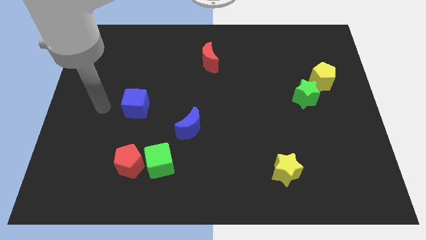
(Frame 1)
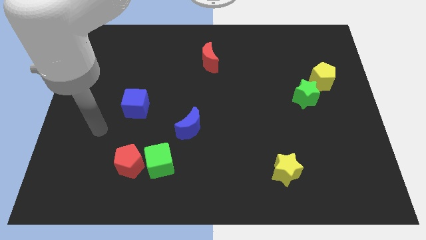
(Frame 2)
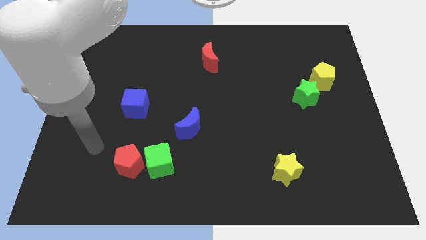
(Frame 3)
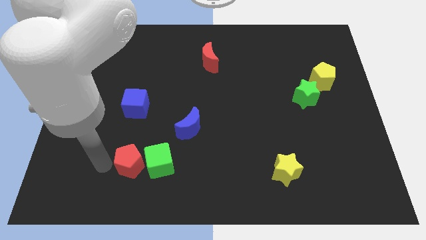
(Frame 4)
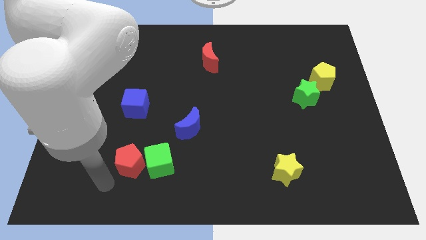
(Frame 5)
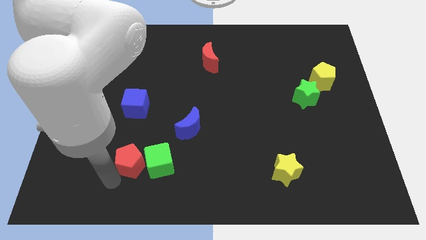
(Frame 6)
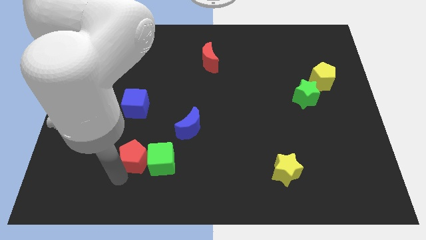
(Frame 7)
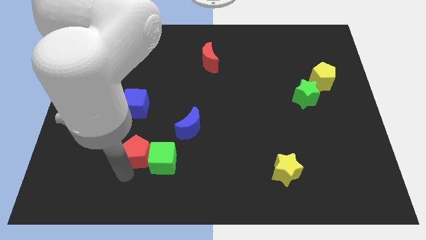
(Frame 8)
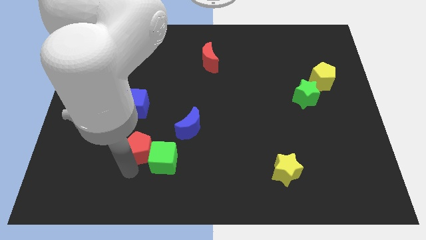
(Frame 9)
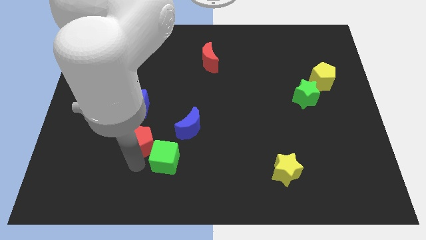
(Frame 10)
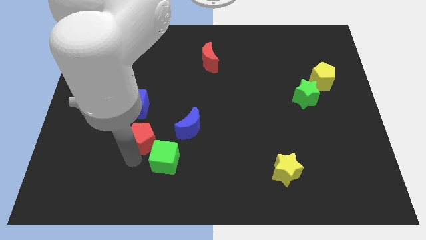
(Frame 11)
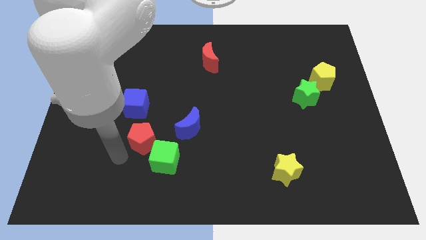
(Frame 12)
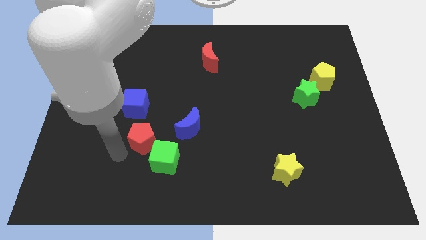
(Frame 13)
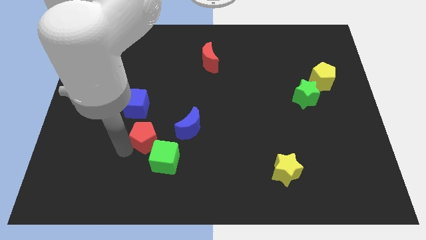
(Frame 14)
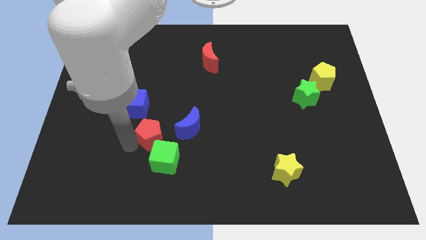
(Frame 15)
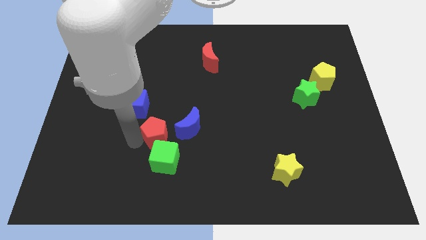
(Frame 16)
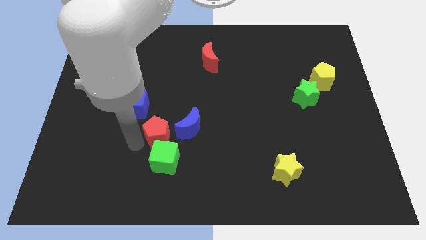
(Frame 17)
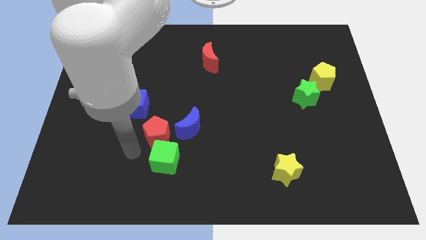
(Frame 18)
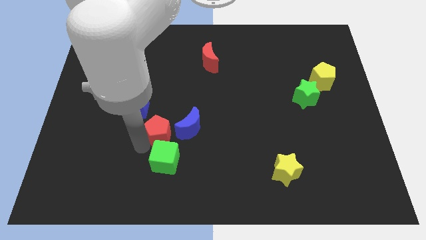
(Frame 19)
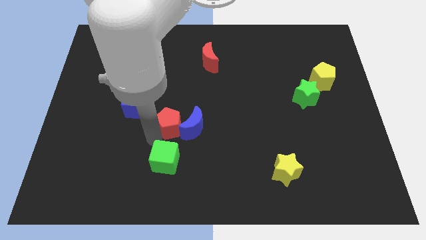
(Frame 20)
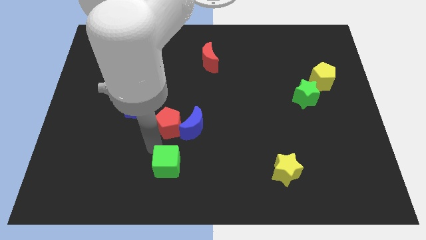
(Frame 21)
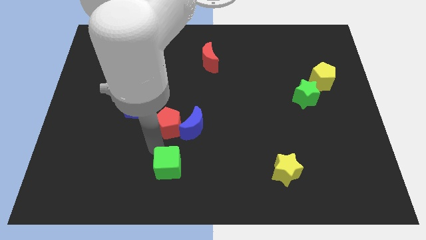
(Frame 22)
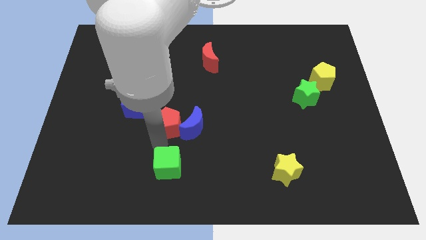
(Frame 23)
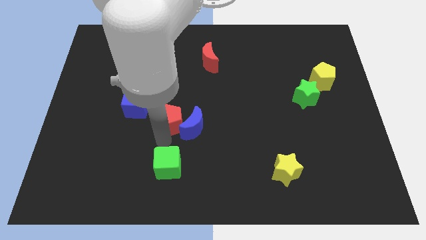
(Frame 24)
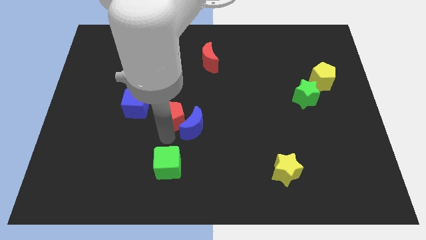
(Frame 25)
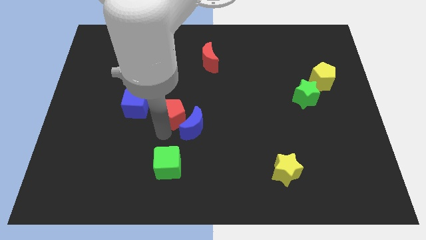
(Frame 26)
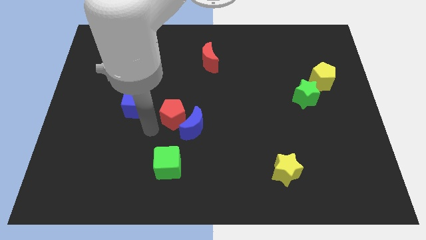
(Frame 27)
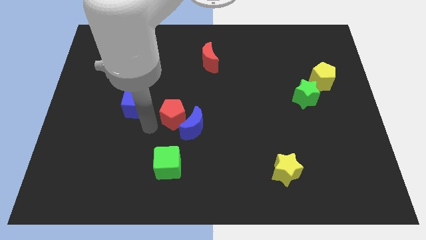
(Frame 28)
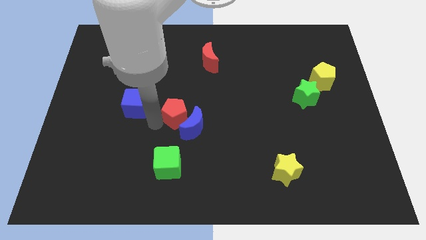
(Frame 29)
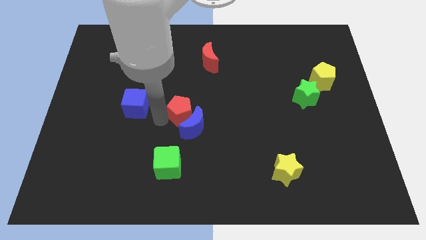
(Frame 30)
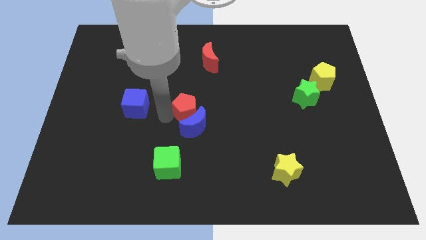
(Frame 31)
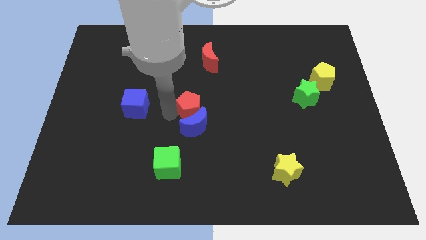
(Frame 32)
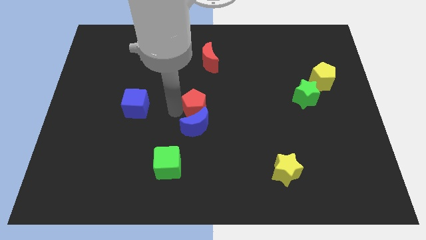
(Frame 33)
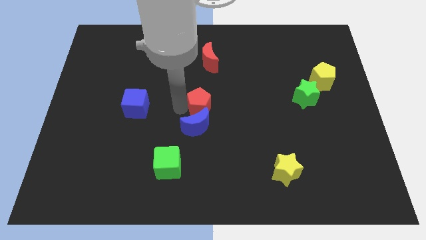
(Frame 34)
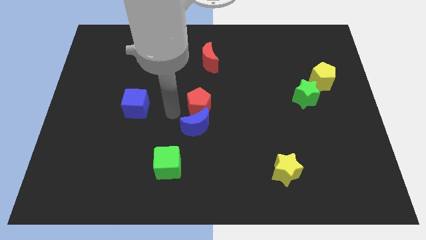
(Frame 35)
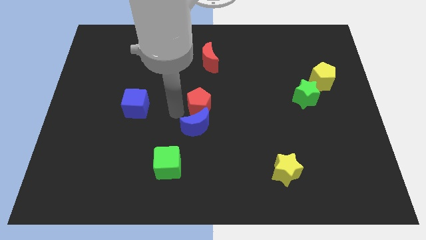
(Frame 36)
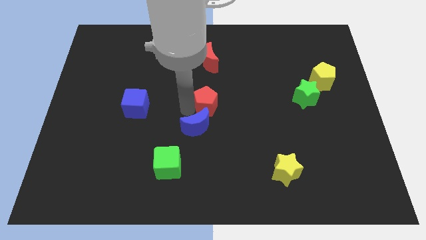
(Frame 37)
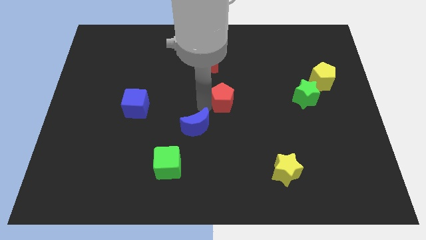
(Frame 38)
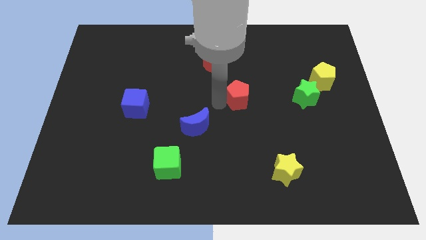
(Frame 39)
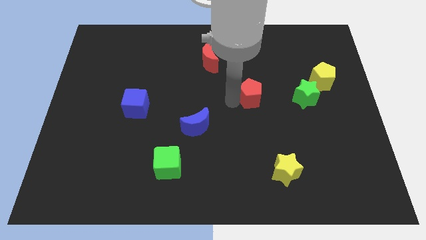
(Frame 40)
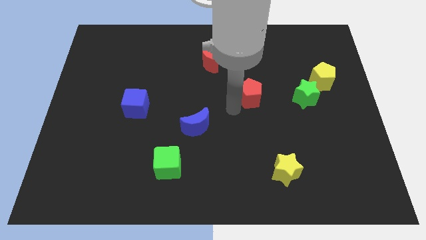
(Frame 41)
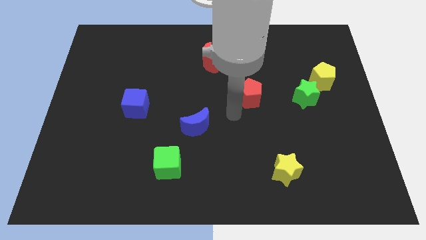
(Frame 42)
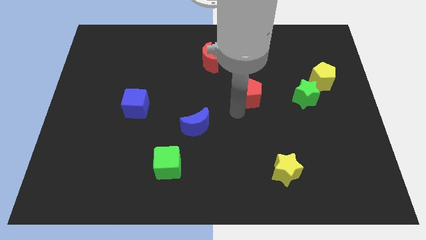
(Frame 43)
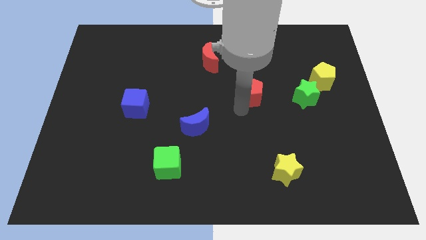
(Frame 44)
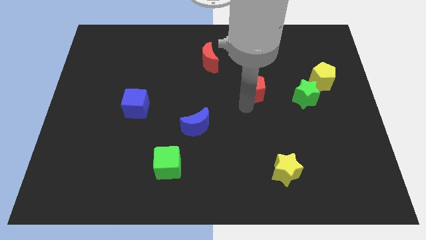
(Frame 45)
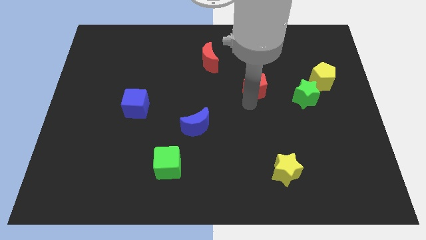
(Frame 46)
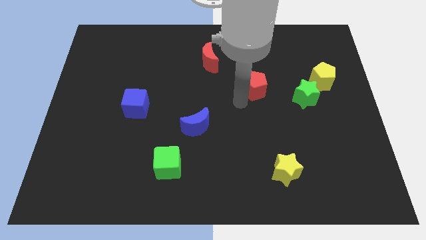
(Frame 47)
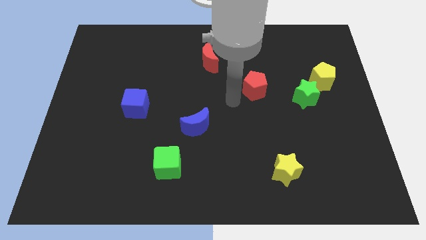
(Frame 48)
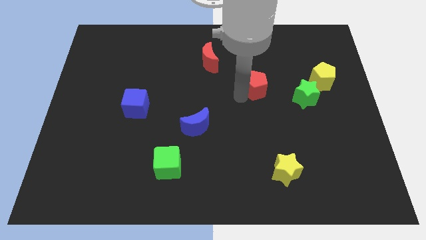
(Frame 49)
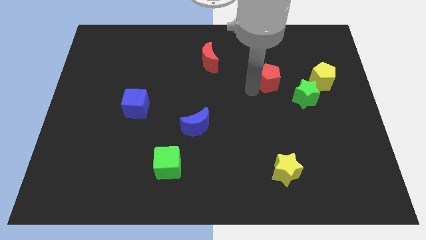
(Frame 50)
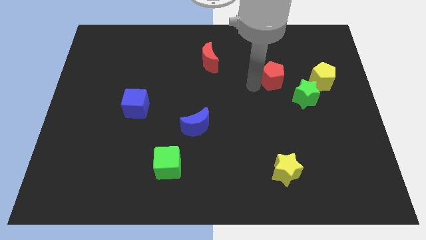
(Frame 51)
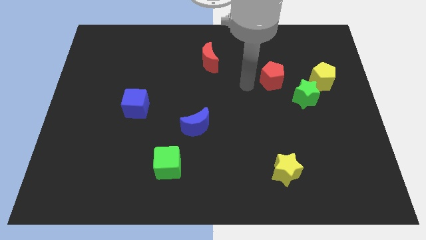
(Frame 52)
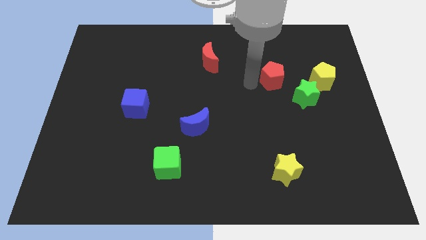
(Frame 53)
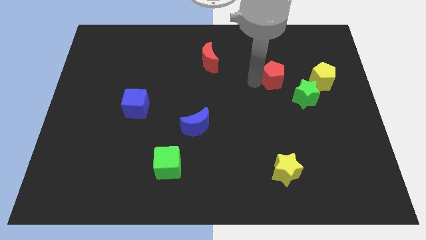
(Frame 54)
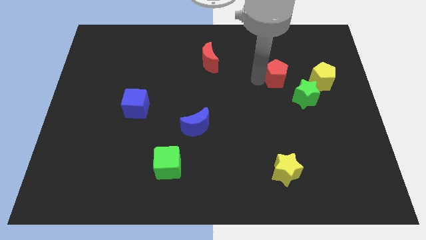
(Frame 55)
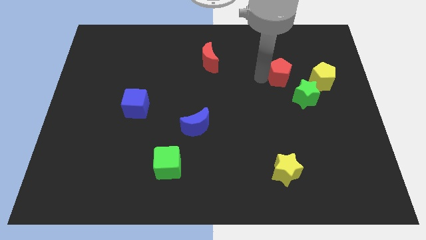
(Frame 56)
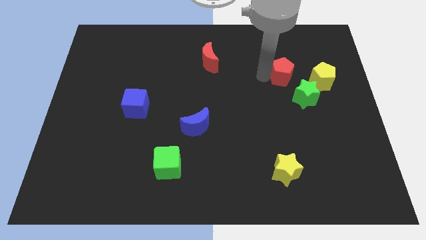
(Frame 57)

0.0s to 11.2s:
push the red pentagon to the top of the green star

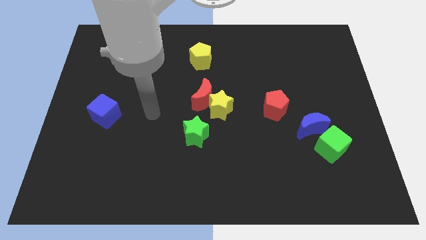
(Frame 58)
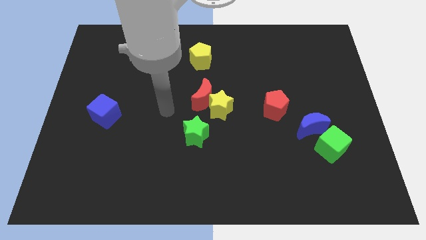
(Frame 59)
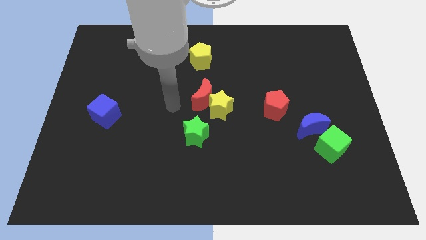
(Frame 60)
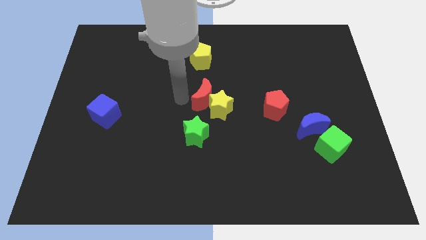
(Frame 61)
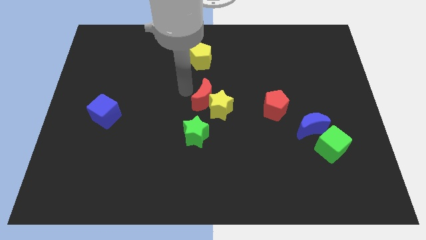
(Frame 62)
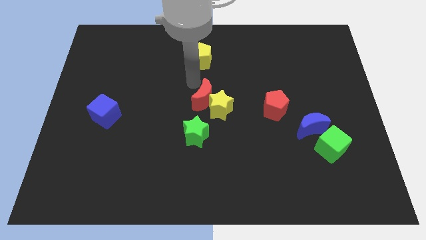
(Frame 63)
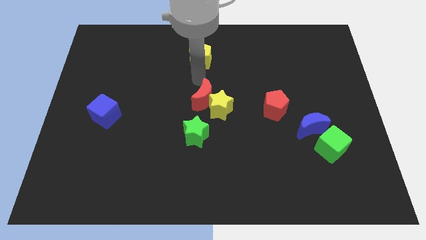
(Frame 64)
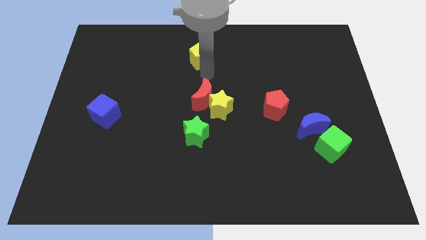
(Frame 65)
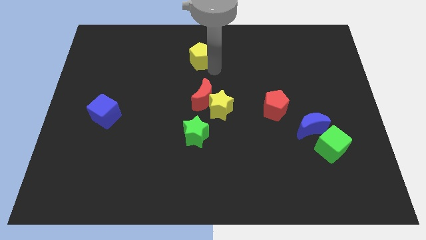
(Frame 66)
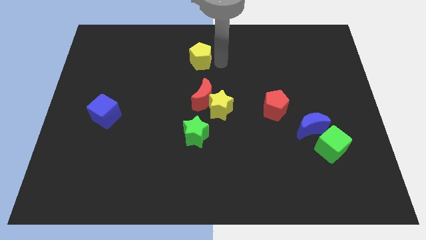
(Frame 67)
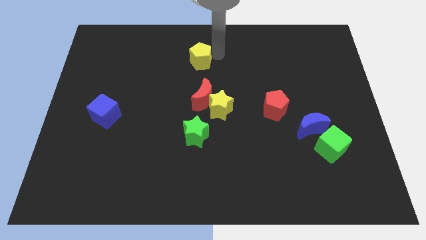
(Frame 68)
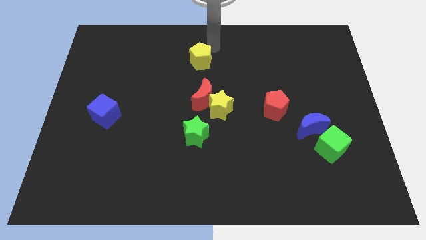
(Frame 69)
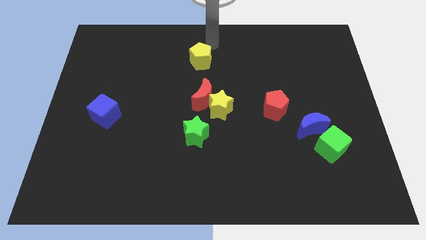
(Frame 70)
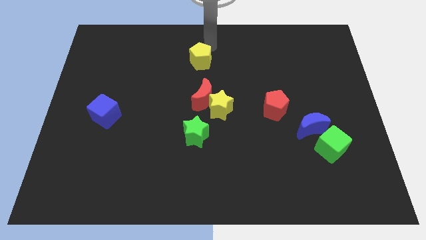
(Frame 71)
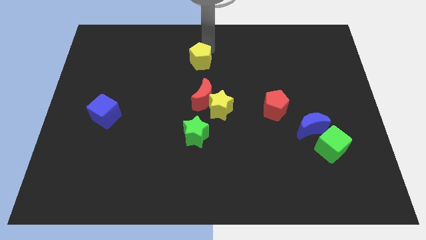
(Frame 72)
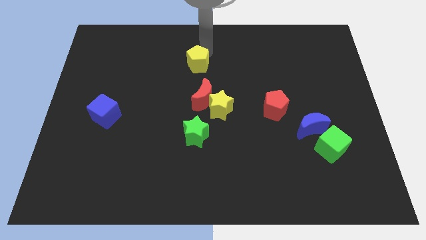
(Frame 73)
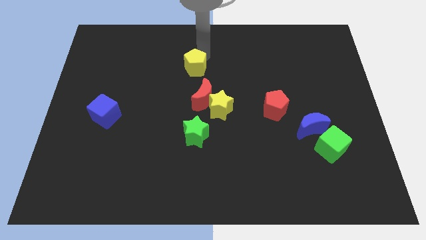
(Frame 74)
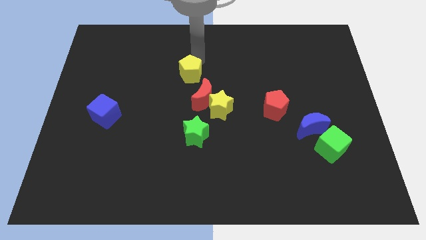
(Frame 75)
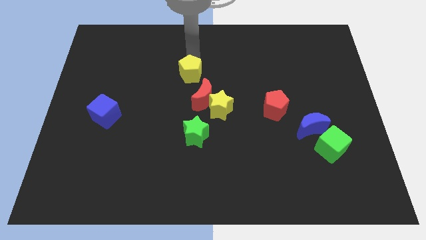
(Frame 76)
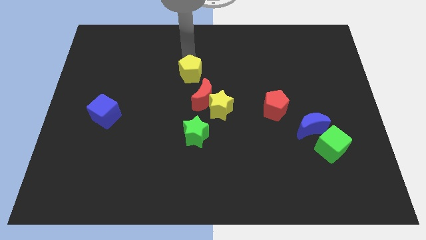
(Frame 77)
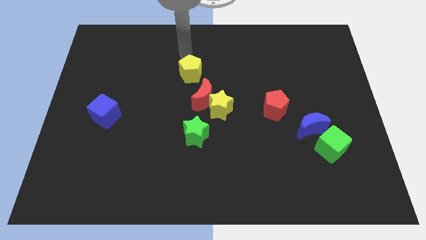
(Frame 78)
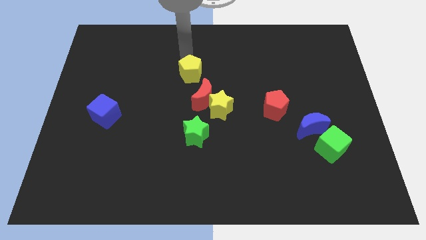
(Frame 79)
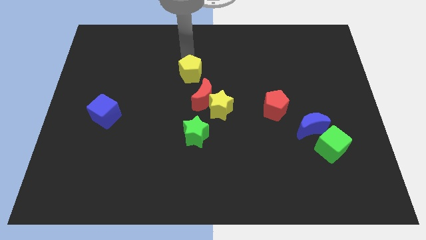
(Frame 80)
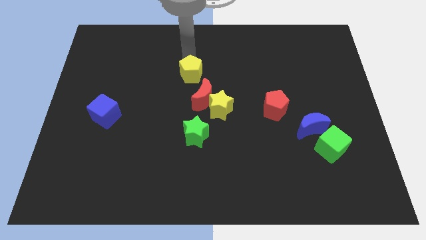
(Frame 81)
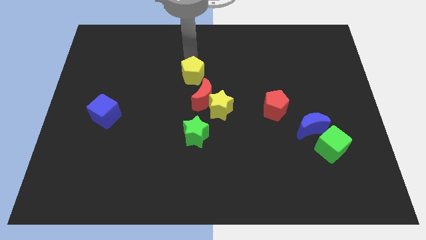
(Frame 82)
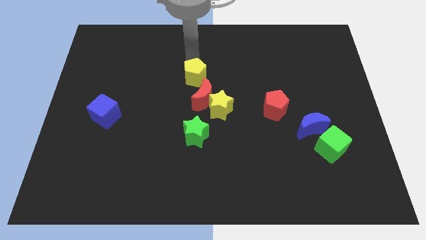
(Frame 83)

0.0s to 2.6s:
push the yellow pentagon to the top left side of the yellow star
